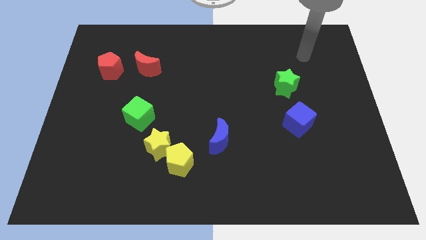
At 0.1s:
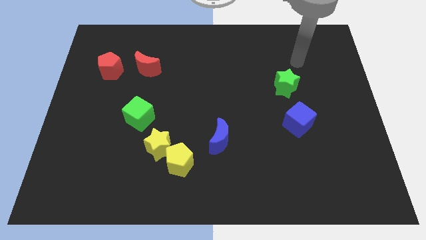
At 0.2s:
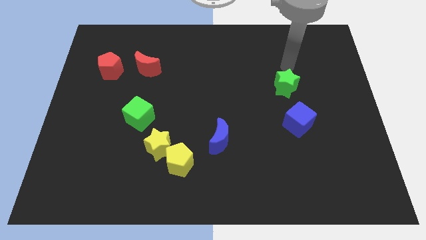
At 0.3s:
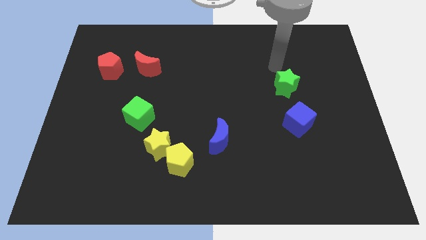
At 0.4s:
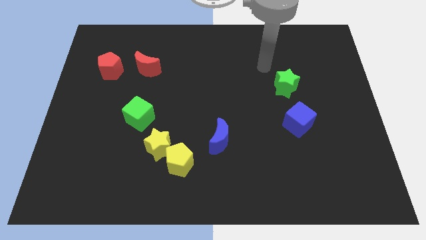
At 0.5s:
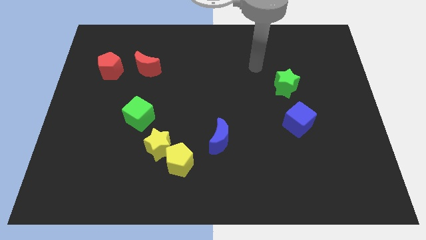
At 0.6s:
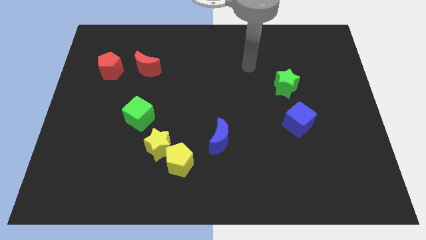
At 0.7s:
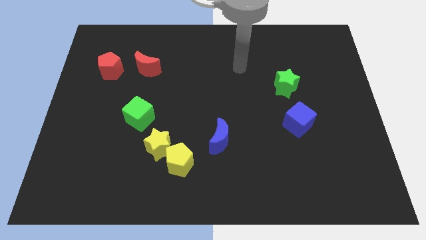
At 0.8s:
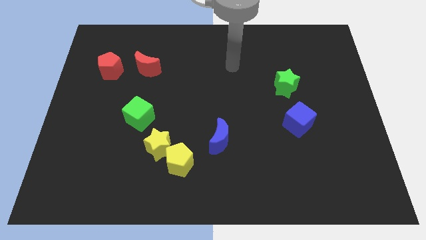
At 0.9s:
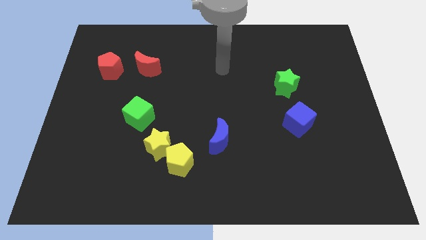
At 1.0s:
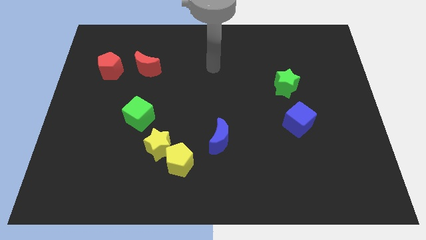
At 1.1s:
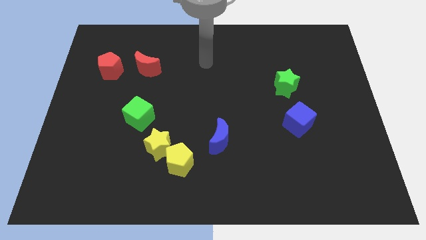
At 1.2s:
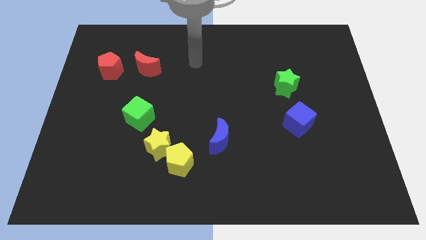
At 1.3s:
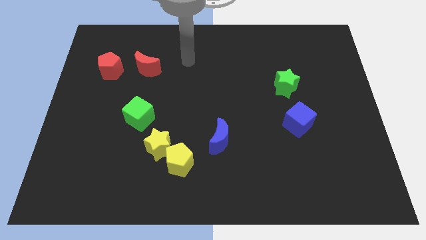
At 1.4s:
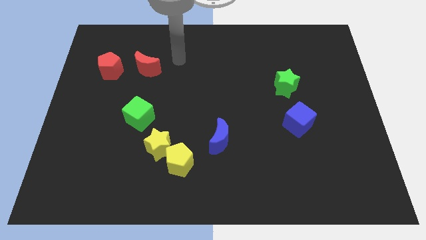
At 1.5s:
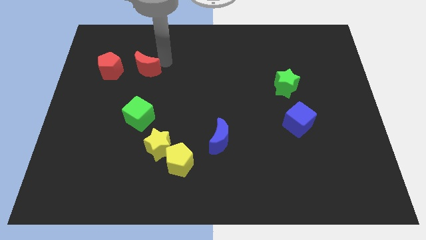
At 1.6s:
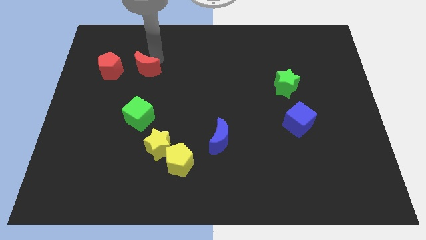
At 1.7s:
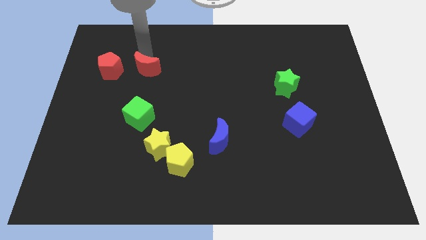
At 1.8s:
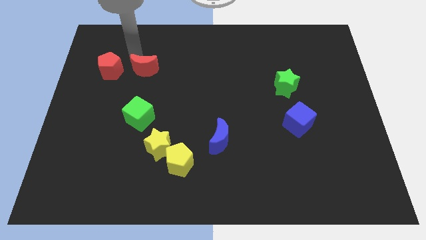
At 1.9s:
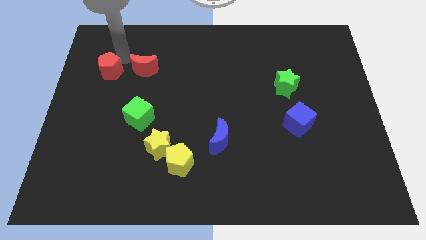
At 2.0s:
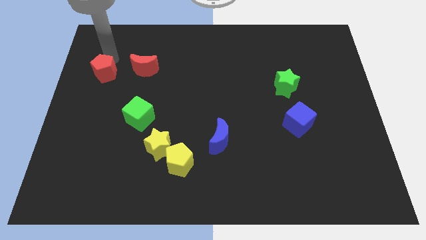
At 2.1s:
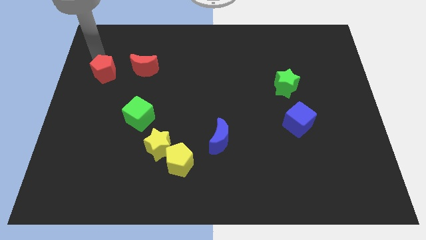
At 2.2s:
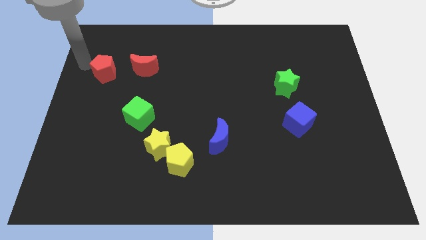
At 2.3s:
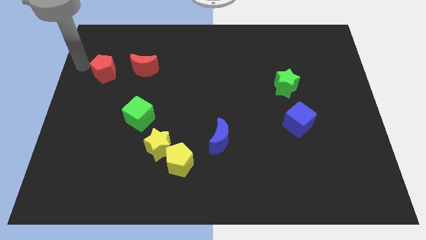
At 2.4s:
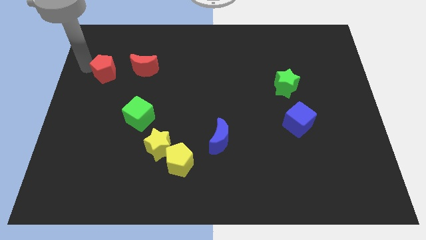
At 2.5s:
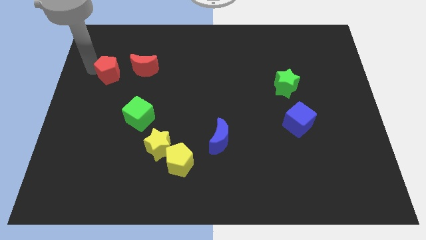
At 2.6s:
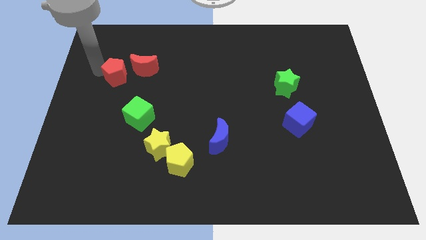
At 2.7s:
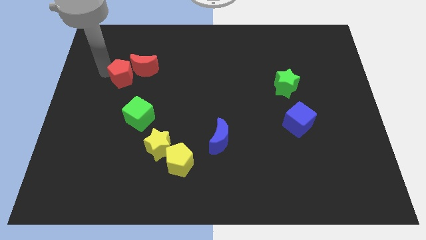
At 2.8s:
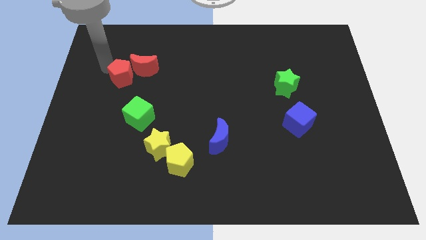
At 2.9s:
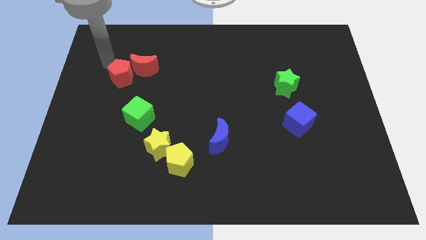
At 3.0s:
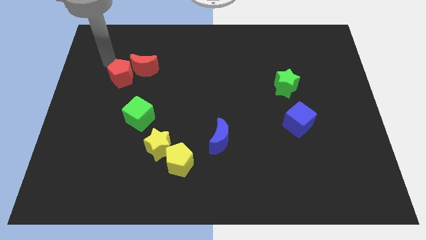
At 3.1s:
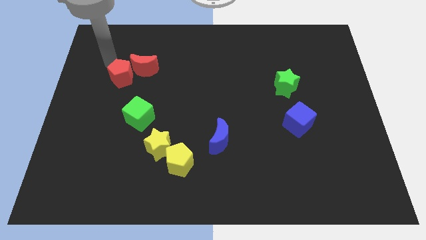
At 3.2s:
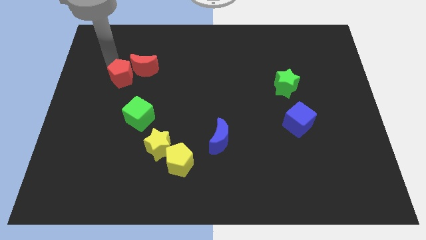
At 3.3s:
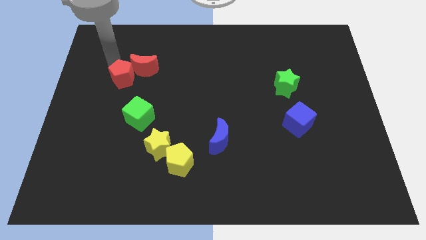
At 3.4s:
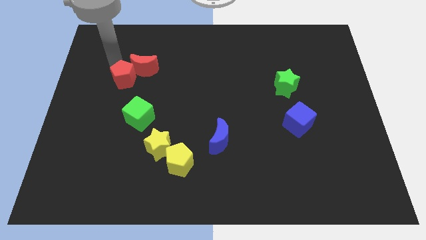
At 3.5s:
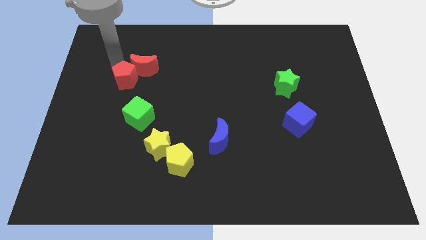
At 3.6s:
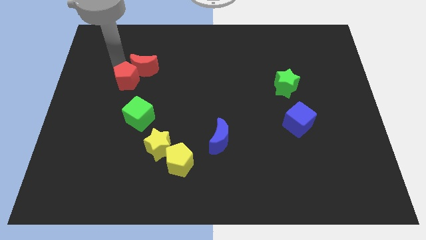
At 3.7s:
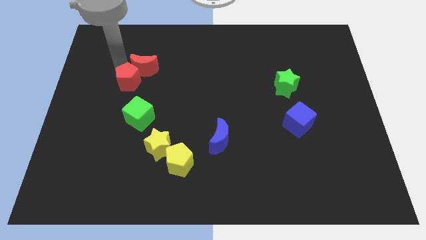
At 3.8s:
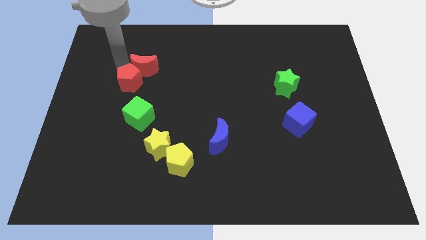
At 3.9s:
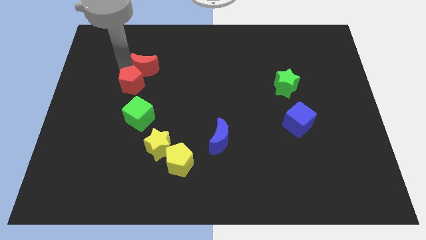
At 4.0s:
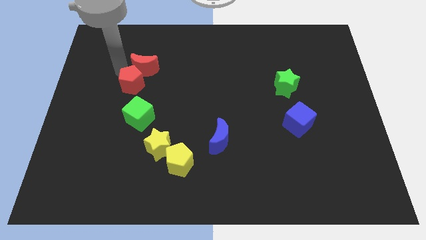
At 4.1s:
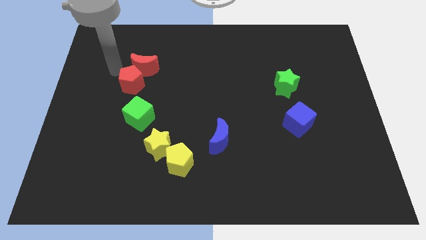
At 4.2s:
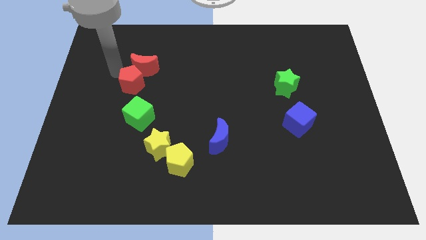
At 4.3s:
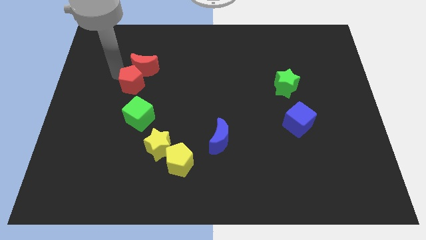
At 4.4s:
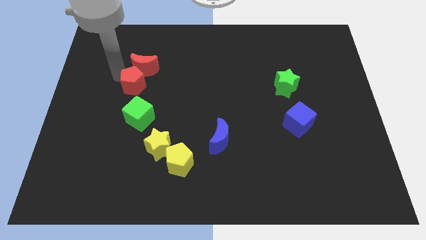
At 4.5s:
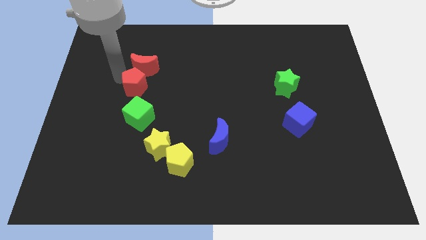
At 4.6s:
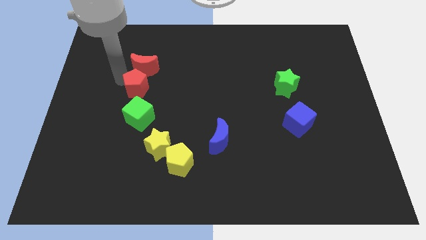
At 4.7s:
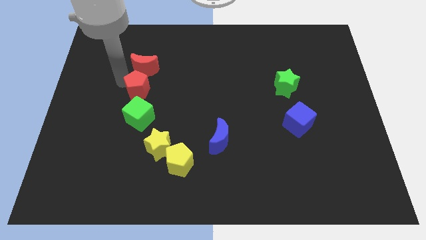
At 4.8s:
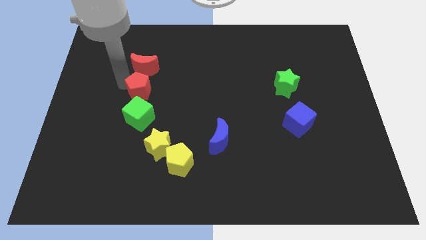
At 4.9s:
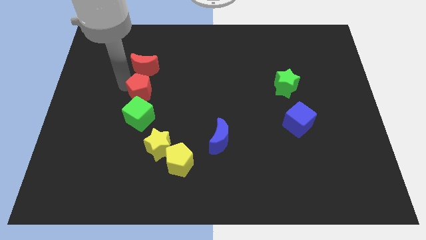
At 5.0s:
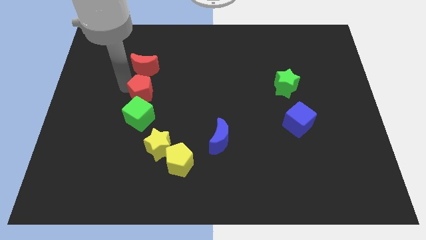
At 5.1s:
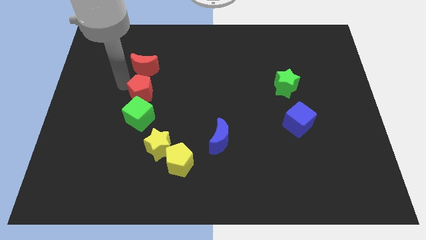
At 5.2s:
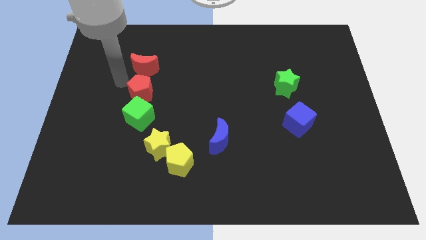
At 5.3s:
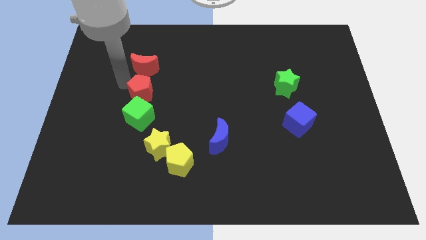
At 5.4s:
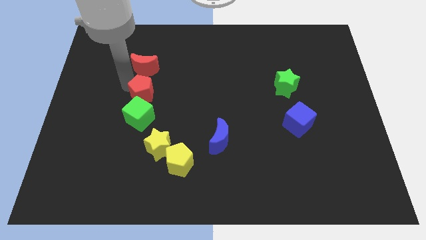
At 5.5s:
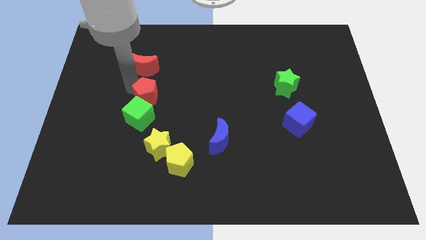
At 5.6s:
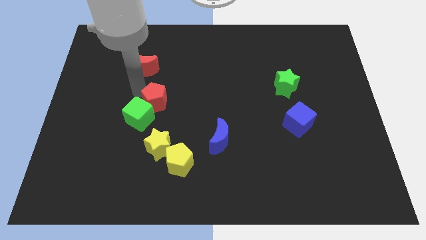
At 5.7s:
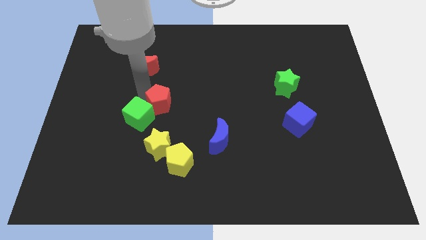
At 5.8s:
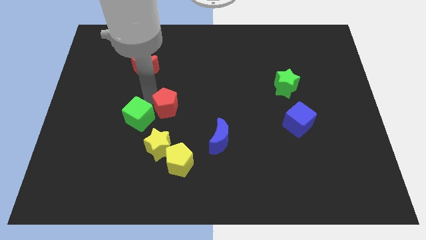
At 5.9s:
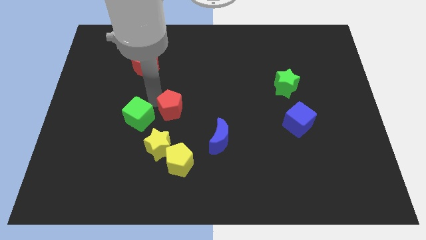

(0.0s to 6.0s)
push the red pentagon downwards and to the right diagonally

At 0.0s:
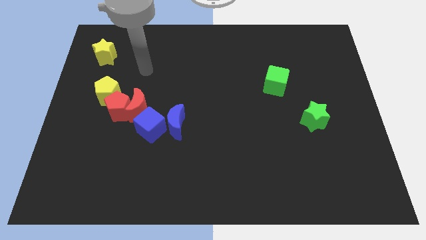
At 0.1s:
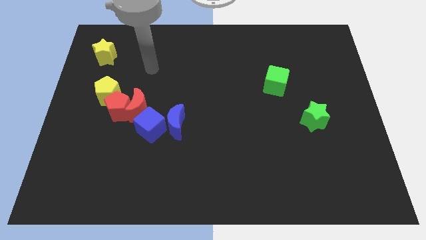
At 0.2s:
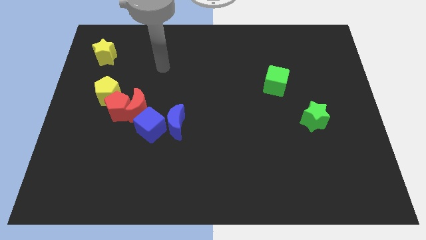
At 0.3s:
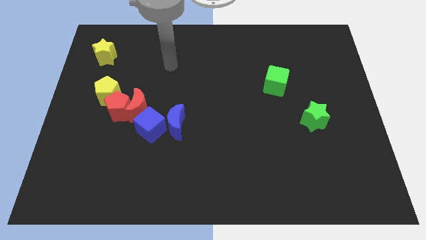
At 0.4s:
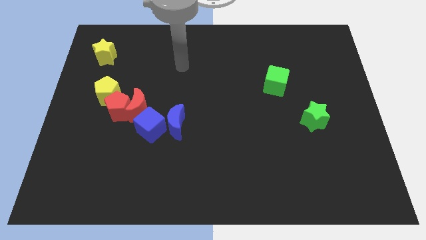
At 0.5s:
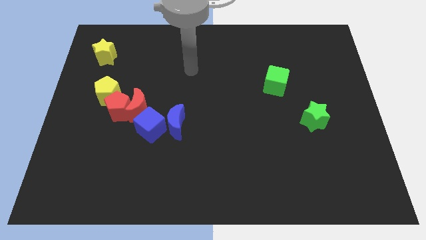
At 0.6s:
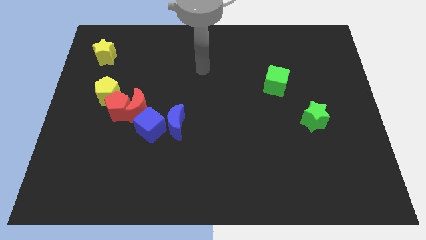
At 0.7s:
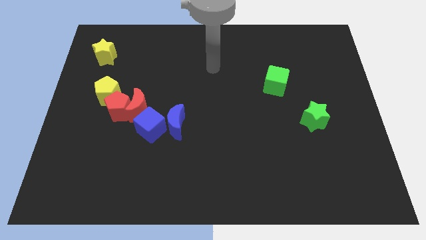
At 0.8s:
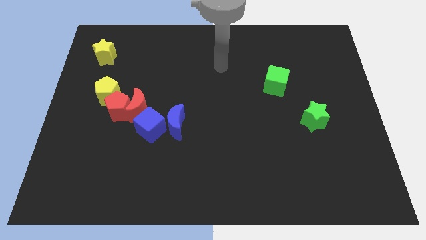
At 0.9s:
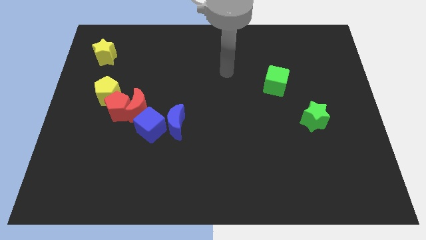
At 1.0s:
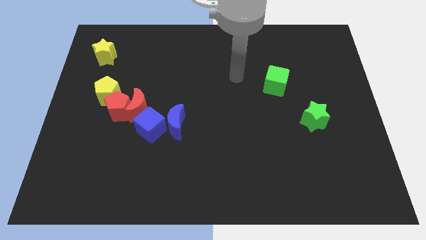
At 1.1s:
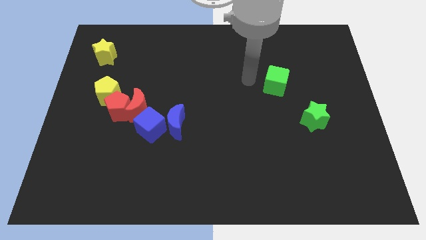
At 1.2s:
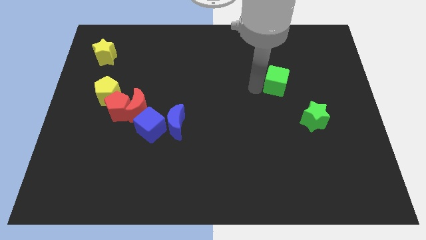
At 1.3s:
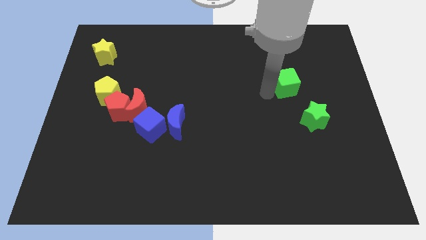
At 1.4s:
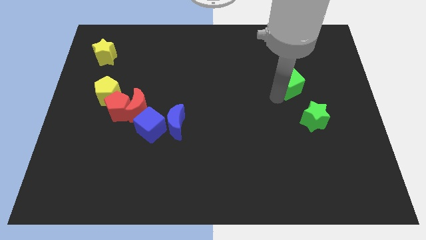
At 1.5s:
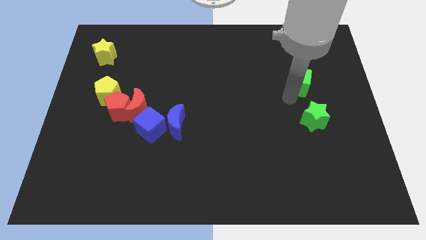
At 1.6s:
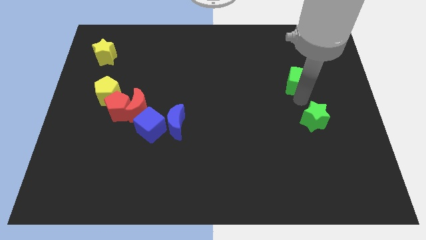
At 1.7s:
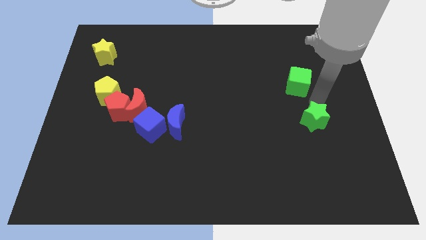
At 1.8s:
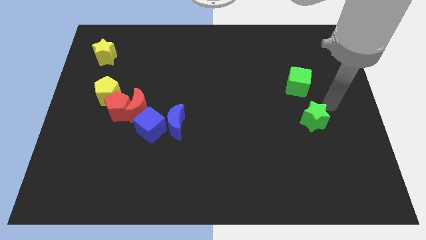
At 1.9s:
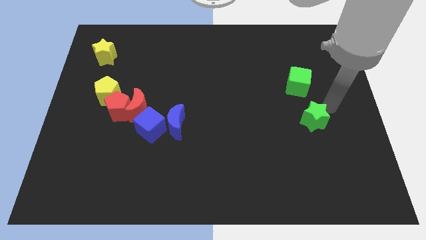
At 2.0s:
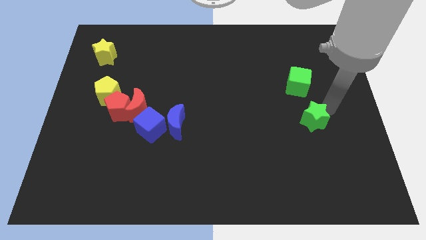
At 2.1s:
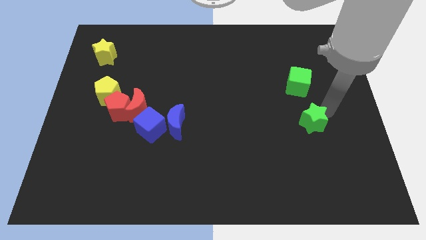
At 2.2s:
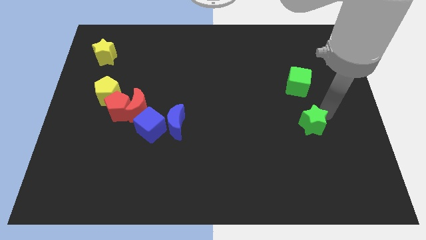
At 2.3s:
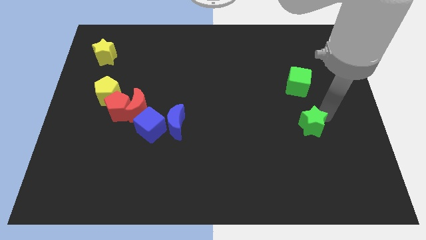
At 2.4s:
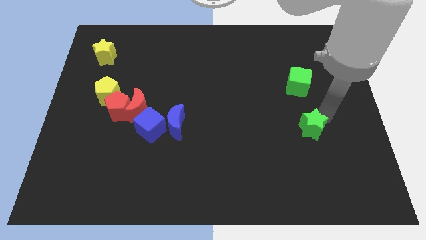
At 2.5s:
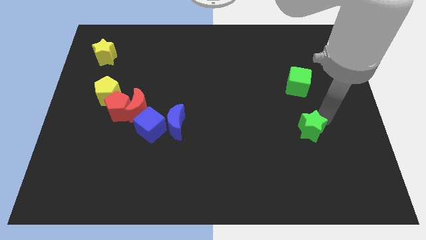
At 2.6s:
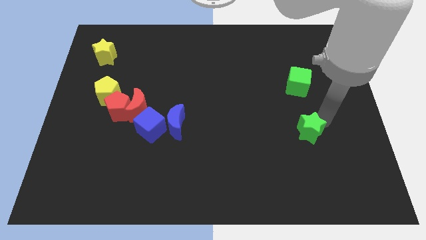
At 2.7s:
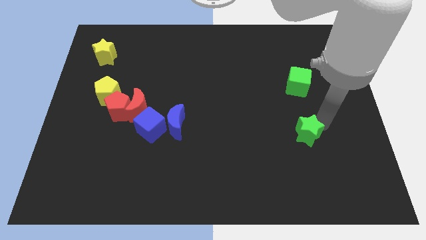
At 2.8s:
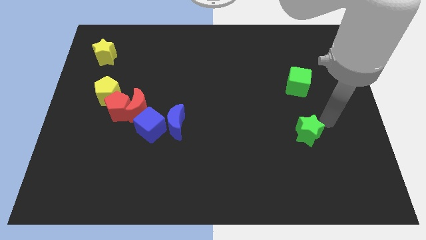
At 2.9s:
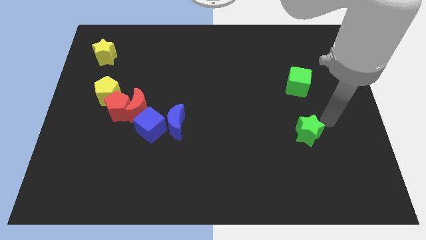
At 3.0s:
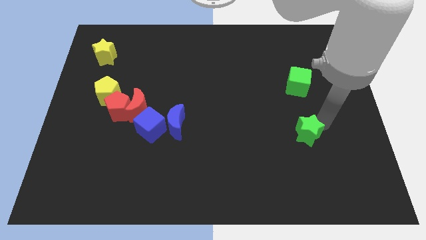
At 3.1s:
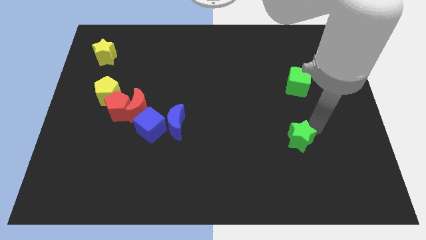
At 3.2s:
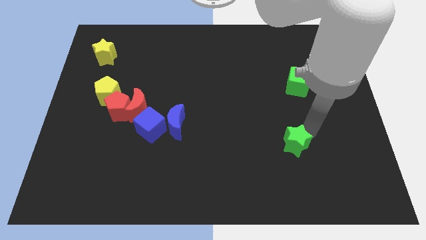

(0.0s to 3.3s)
slide the green star slightly diagonally down and left
